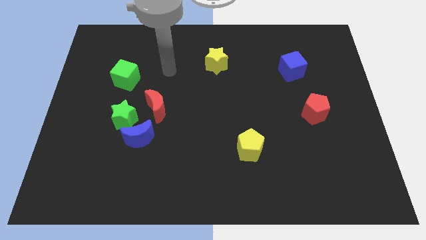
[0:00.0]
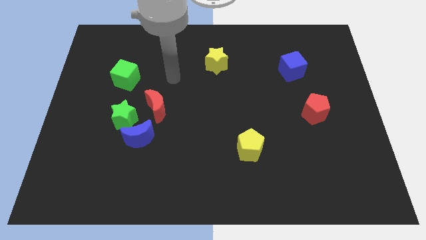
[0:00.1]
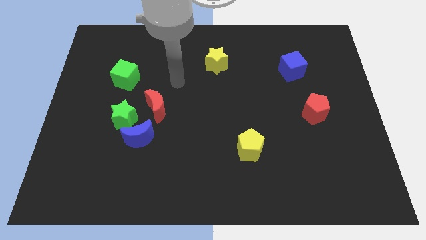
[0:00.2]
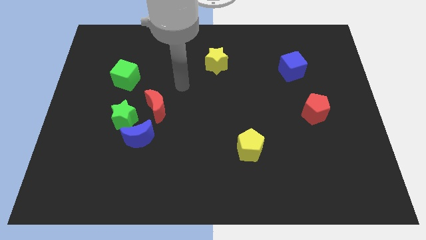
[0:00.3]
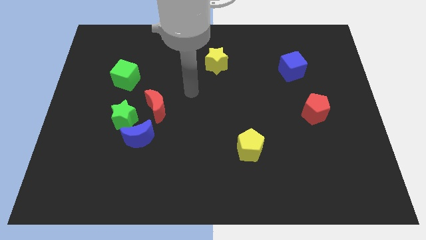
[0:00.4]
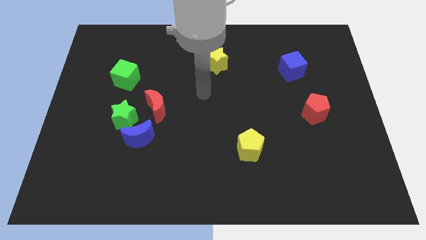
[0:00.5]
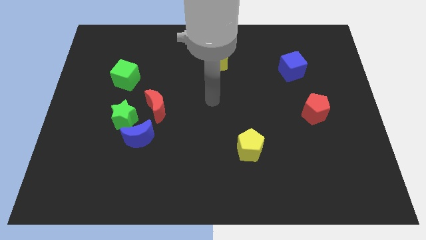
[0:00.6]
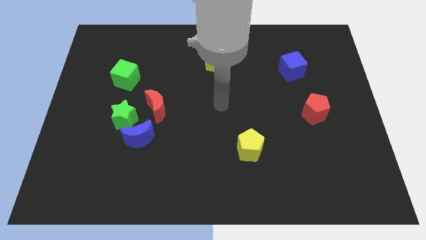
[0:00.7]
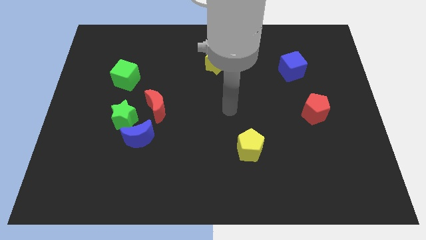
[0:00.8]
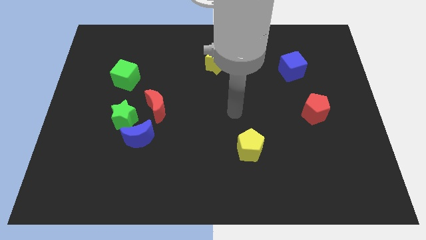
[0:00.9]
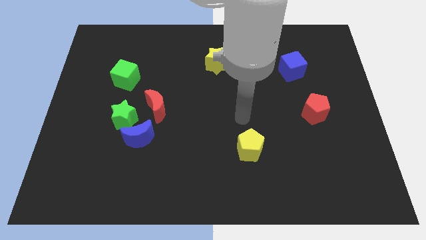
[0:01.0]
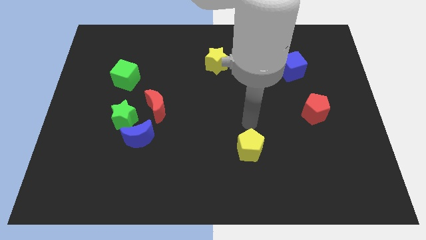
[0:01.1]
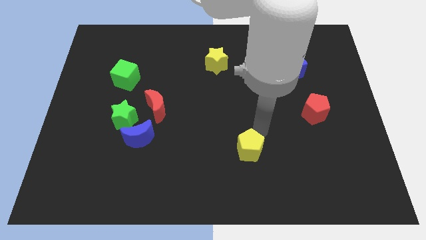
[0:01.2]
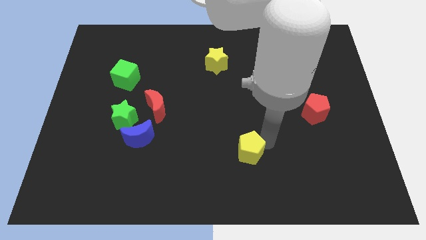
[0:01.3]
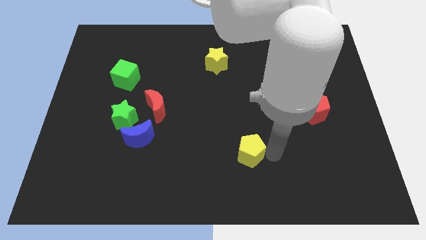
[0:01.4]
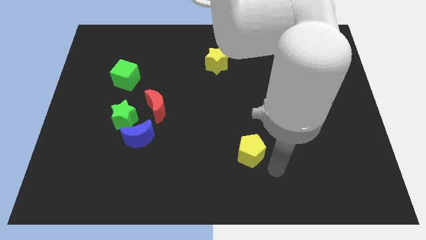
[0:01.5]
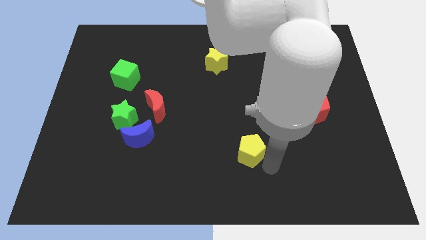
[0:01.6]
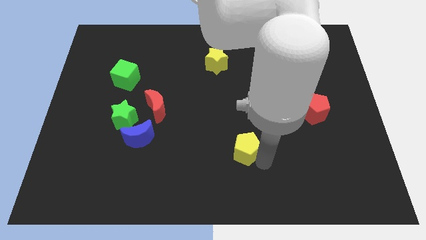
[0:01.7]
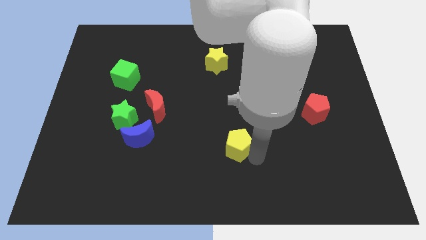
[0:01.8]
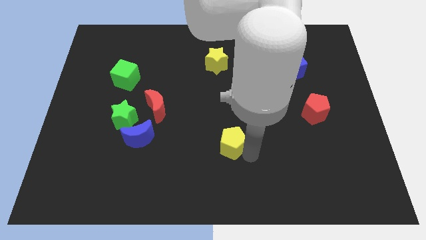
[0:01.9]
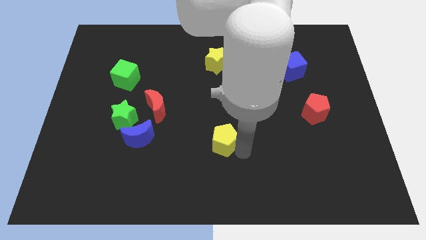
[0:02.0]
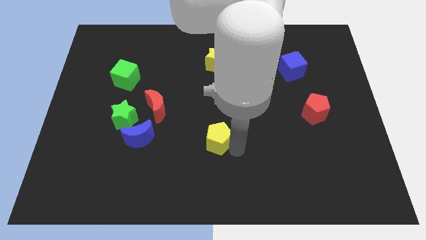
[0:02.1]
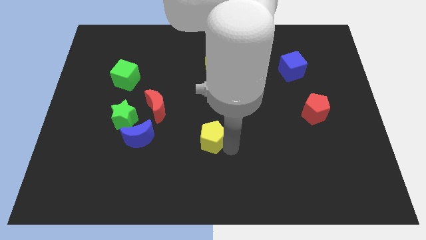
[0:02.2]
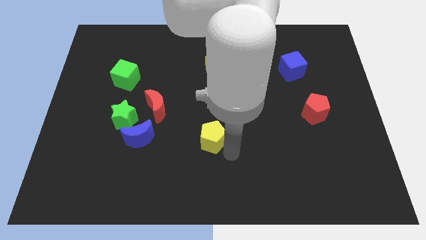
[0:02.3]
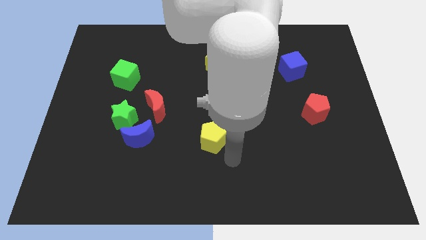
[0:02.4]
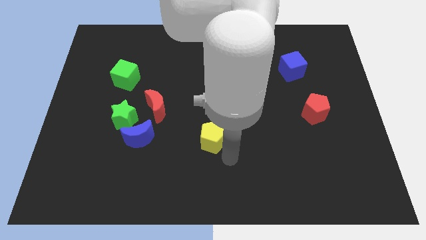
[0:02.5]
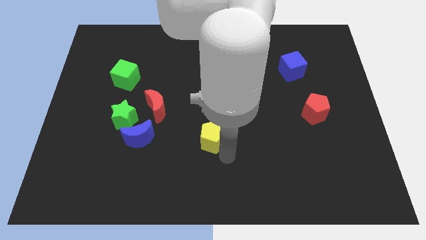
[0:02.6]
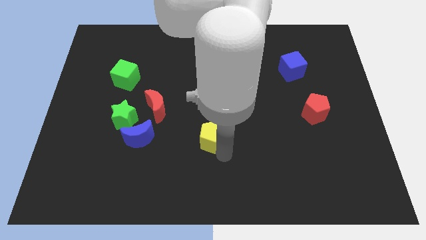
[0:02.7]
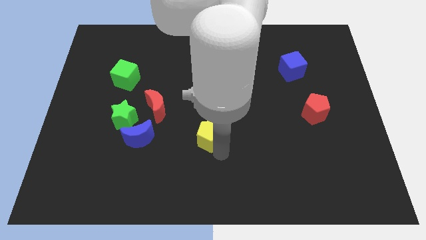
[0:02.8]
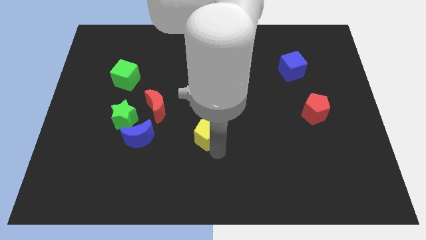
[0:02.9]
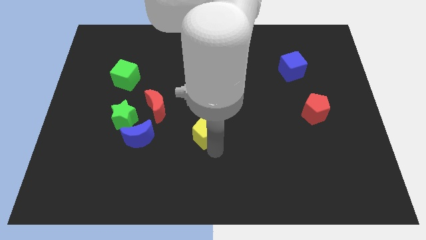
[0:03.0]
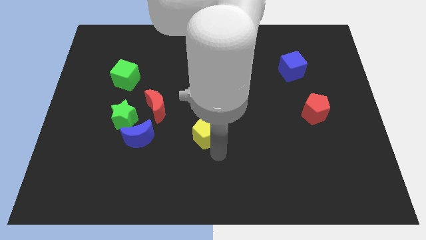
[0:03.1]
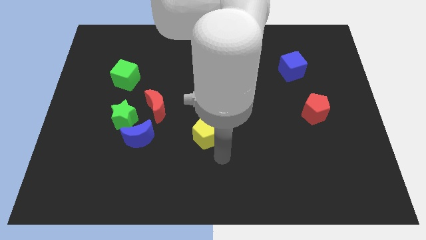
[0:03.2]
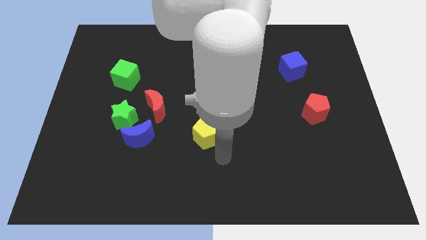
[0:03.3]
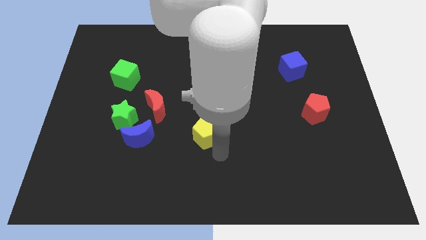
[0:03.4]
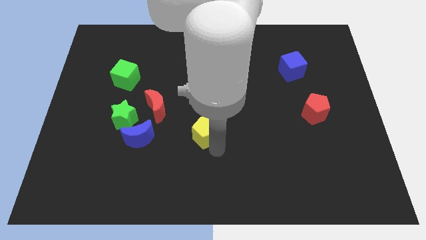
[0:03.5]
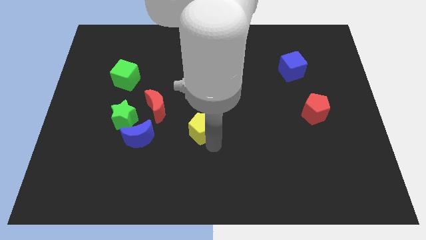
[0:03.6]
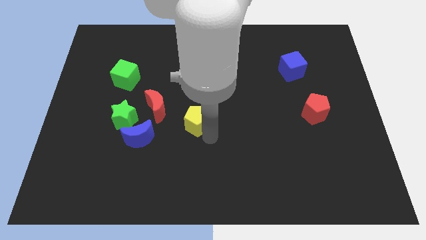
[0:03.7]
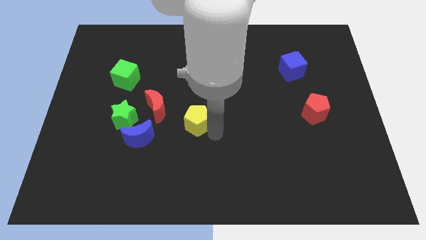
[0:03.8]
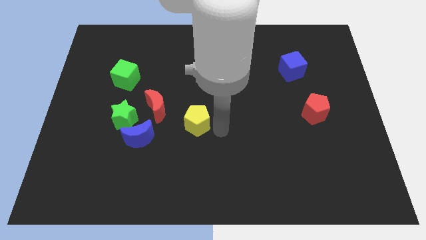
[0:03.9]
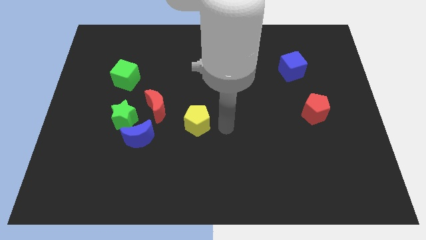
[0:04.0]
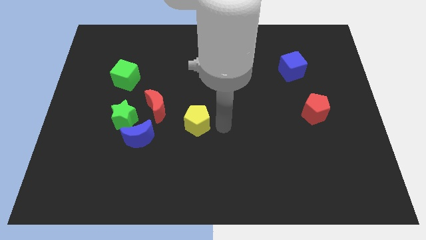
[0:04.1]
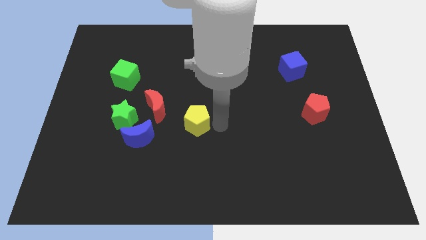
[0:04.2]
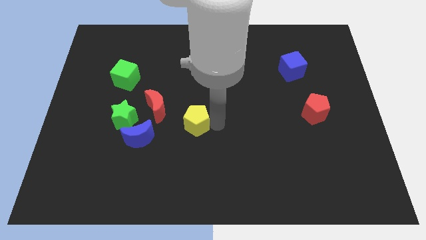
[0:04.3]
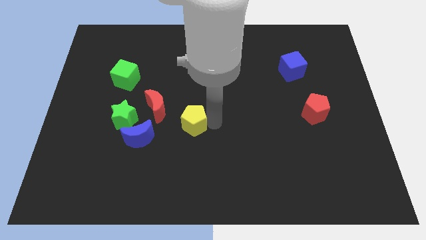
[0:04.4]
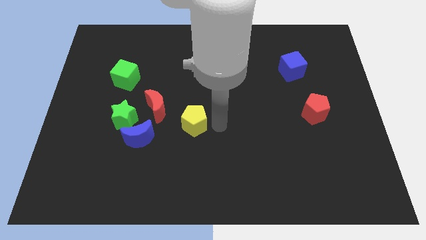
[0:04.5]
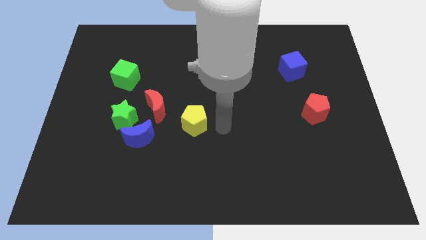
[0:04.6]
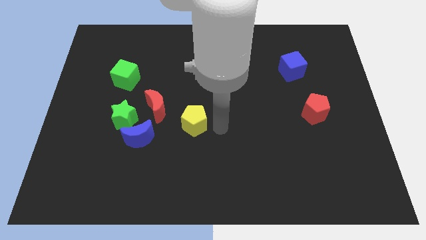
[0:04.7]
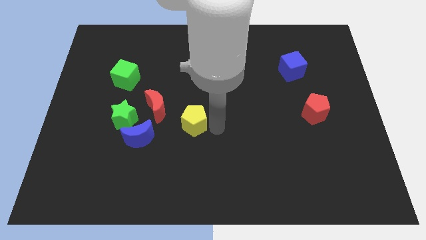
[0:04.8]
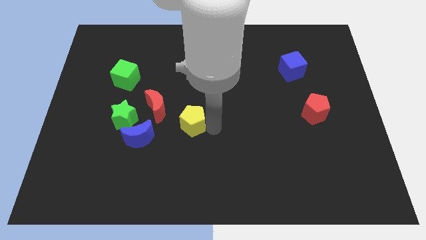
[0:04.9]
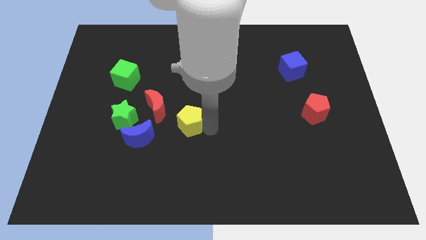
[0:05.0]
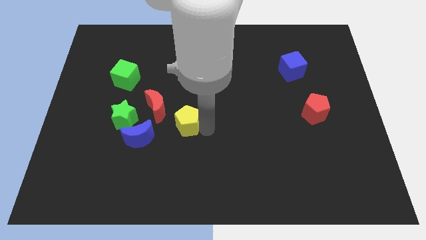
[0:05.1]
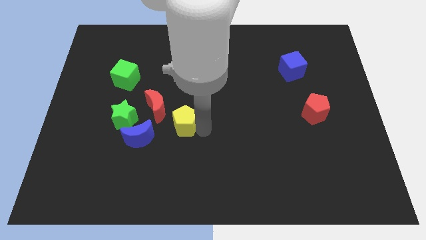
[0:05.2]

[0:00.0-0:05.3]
put the yellow pentagon to the top right of the blue moon

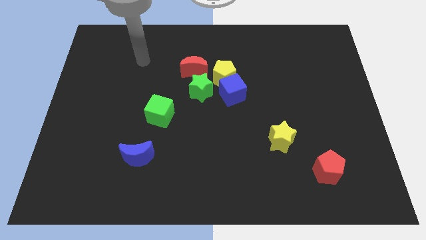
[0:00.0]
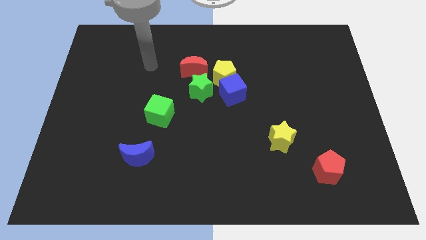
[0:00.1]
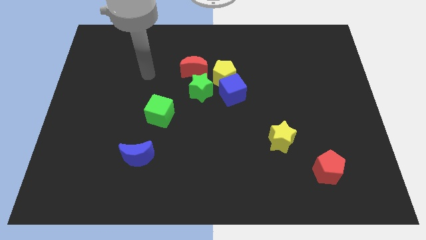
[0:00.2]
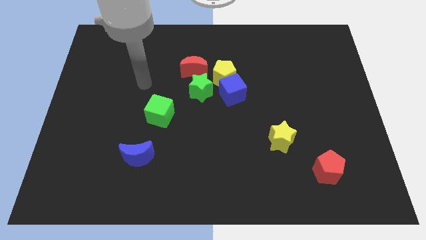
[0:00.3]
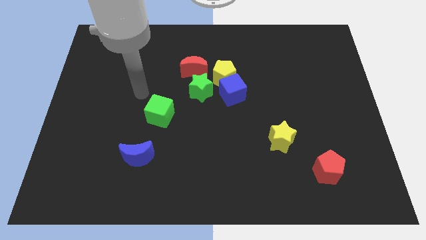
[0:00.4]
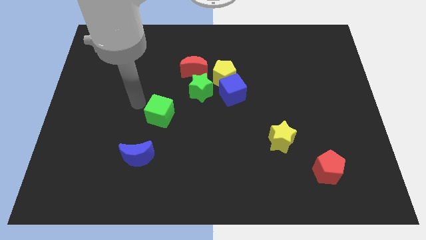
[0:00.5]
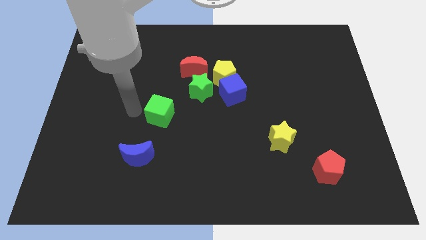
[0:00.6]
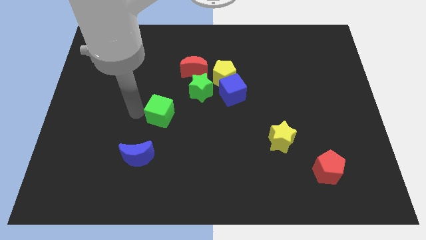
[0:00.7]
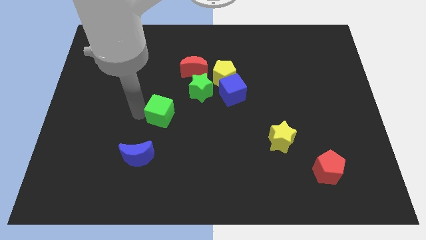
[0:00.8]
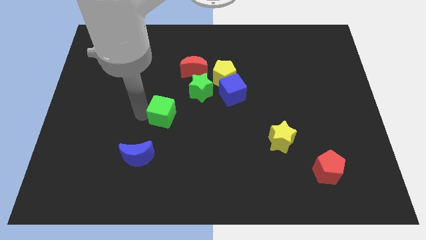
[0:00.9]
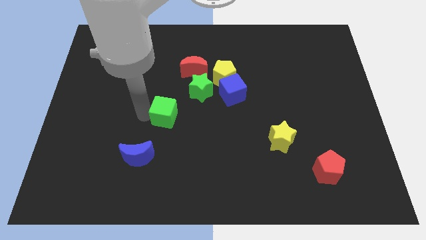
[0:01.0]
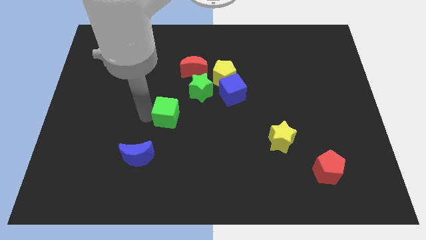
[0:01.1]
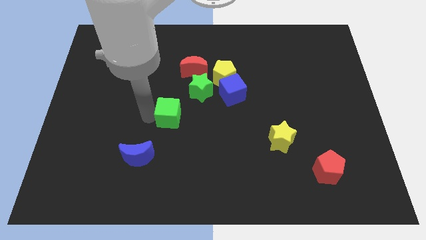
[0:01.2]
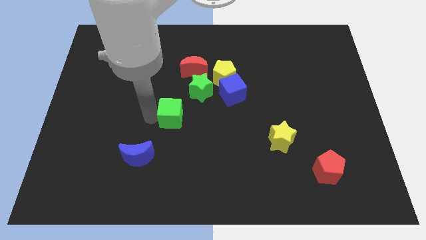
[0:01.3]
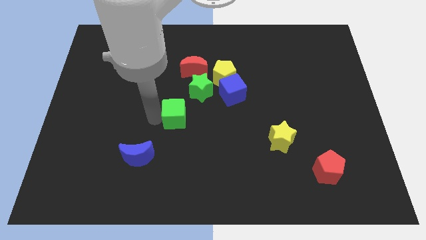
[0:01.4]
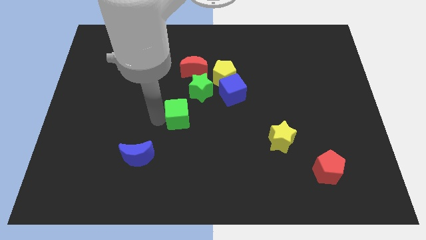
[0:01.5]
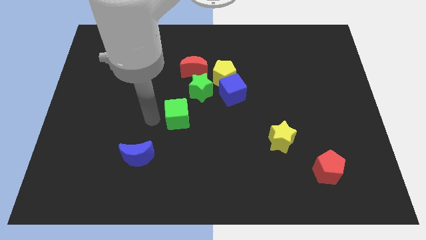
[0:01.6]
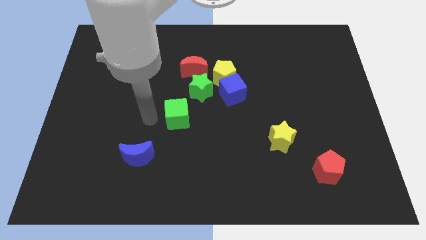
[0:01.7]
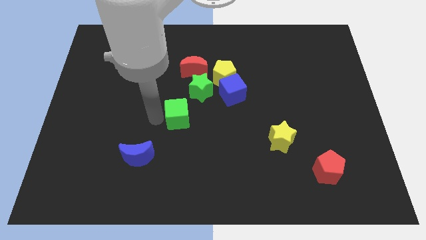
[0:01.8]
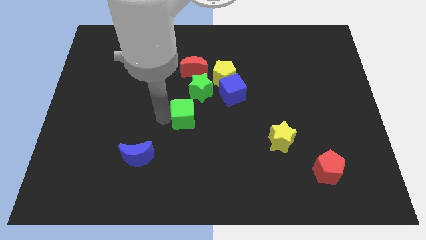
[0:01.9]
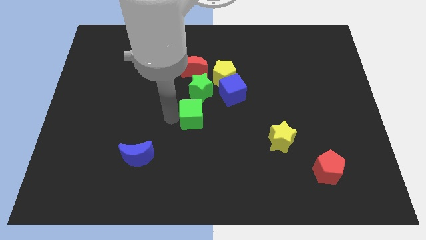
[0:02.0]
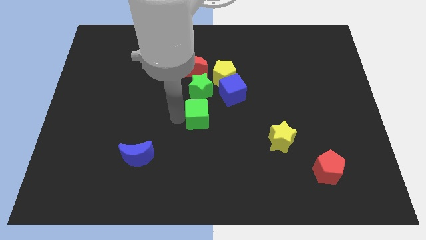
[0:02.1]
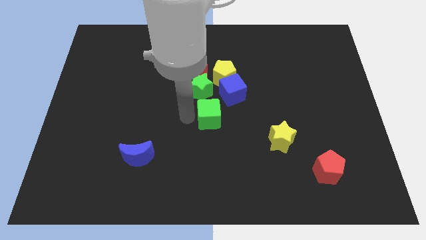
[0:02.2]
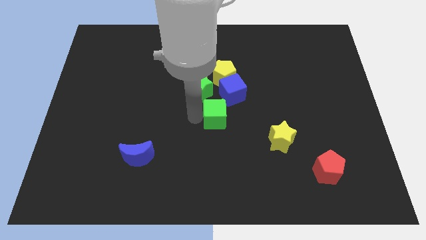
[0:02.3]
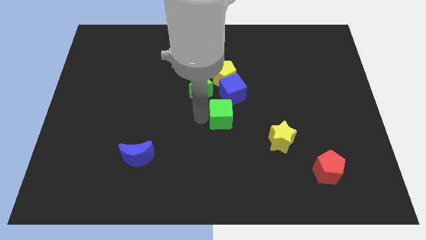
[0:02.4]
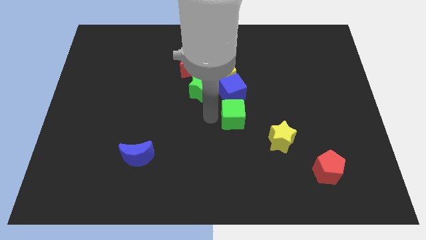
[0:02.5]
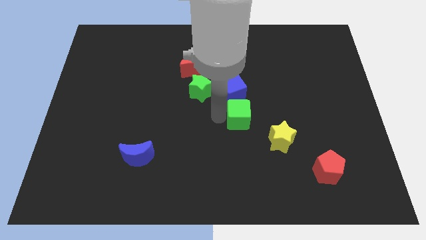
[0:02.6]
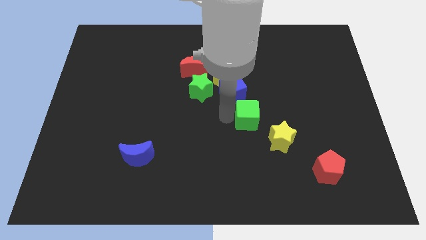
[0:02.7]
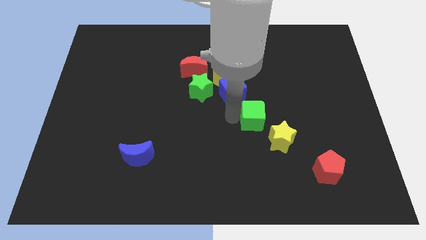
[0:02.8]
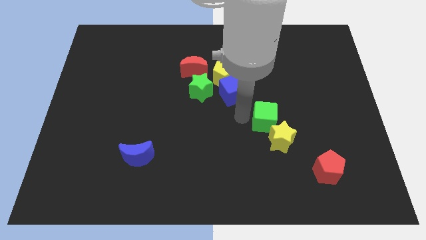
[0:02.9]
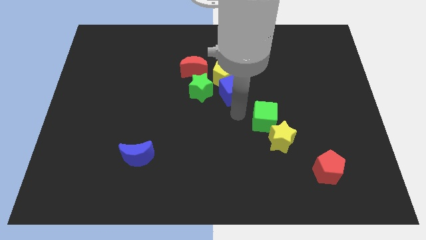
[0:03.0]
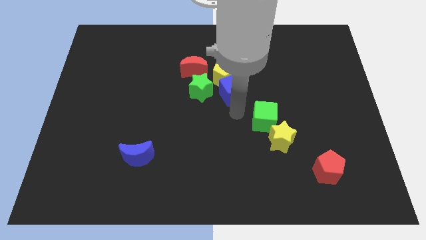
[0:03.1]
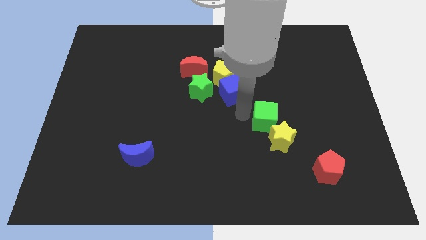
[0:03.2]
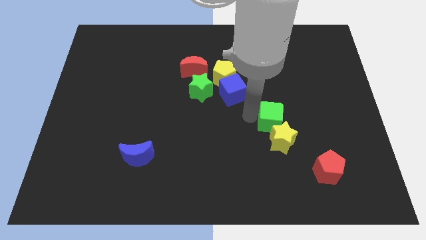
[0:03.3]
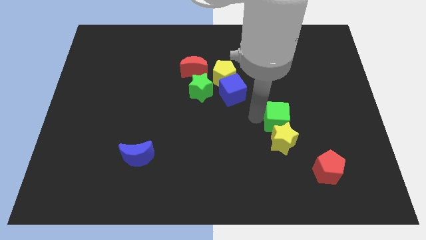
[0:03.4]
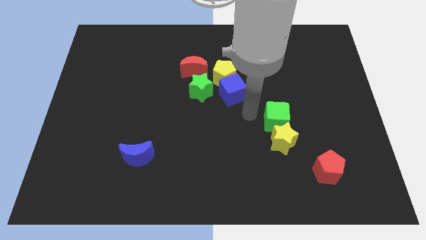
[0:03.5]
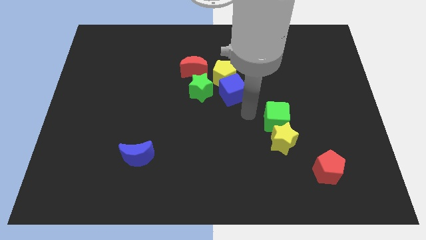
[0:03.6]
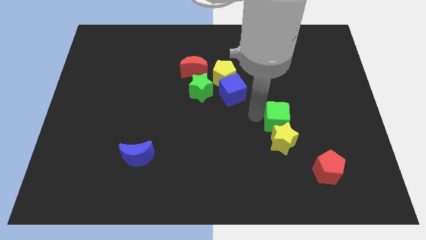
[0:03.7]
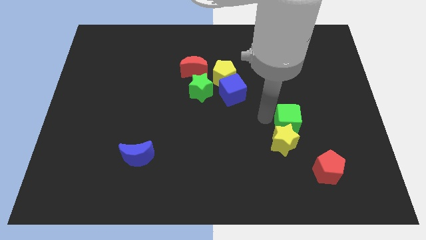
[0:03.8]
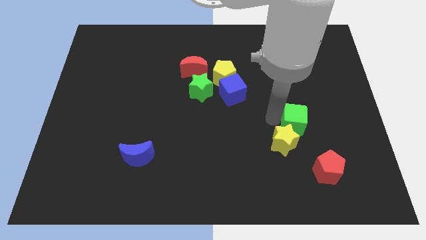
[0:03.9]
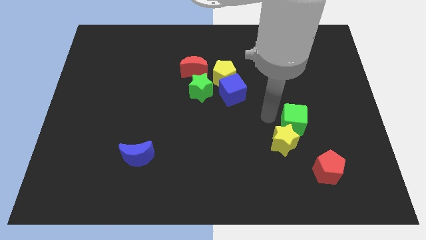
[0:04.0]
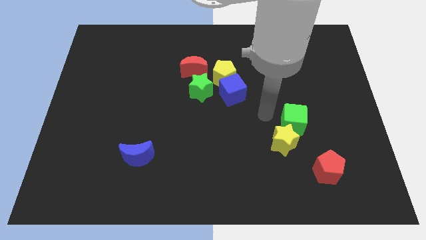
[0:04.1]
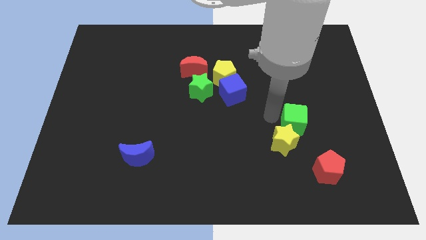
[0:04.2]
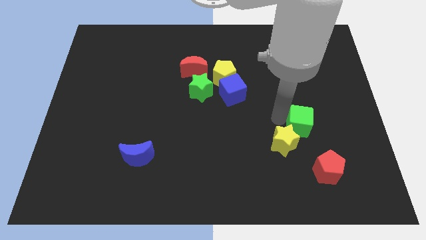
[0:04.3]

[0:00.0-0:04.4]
put the green cube to the top side of the red pentagon
